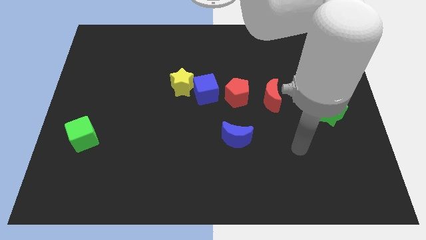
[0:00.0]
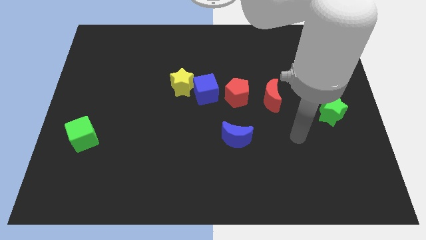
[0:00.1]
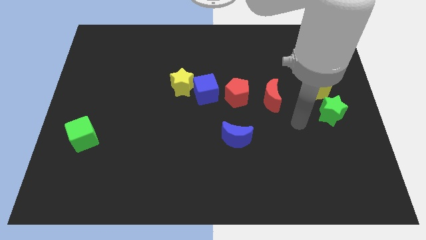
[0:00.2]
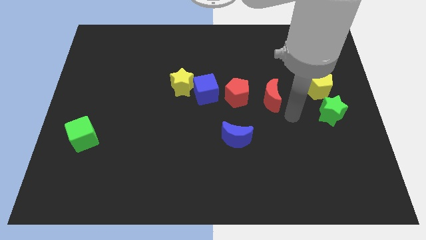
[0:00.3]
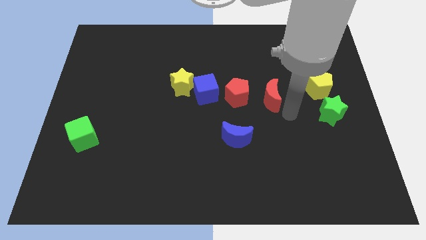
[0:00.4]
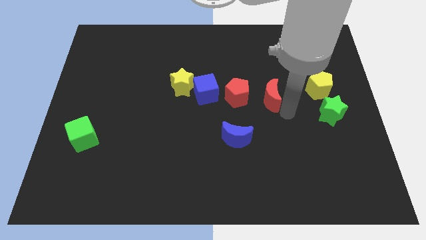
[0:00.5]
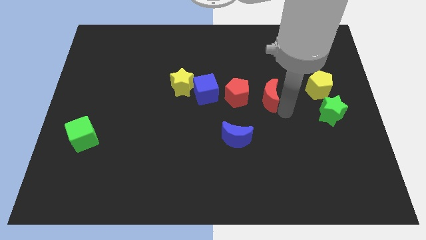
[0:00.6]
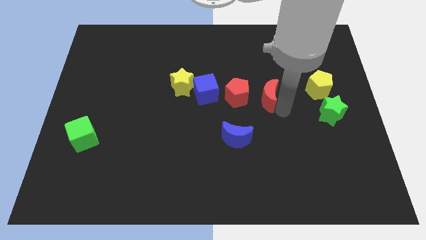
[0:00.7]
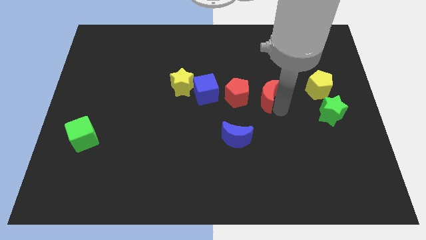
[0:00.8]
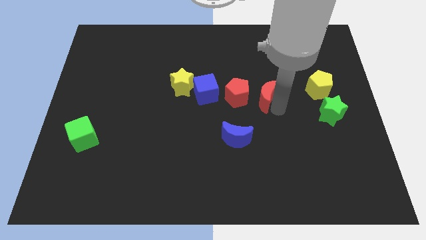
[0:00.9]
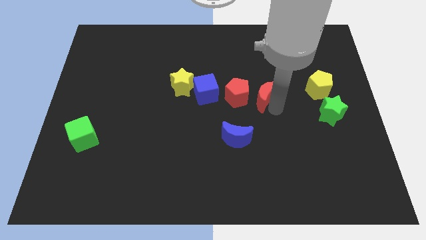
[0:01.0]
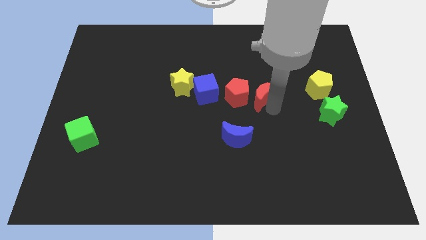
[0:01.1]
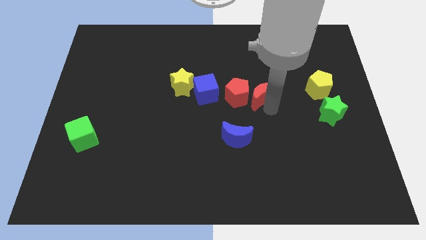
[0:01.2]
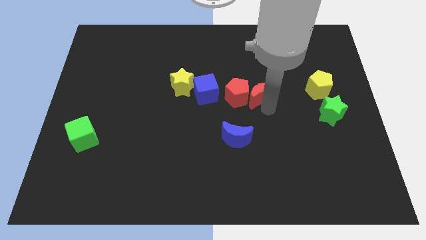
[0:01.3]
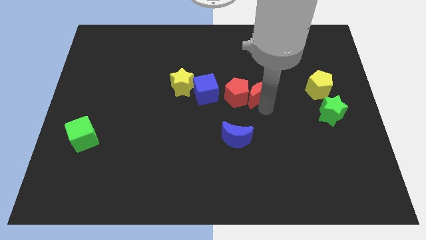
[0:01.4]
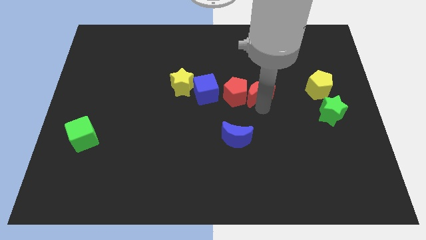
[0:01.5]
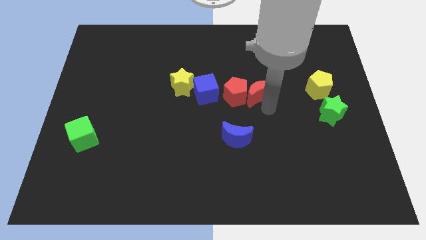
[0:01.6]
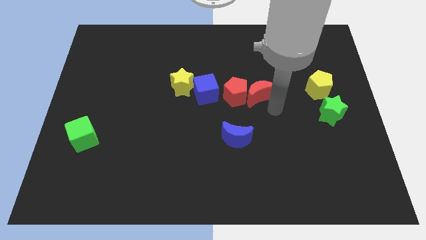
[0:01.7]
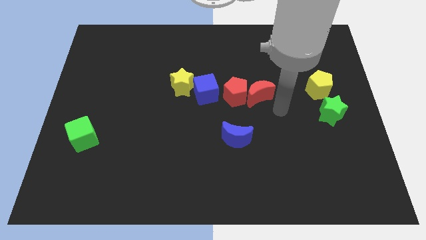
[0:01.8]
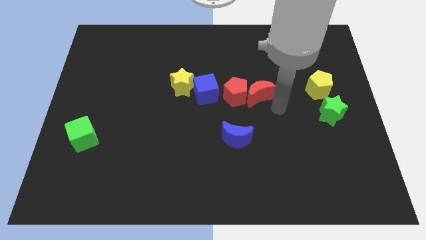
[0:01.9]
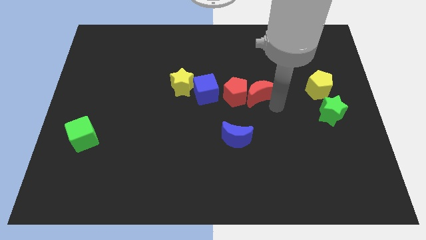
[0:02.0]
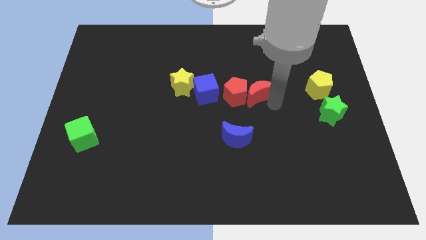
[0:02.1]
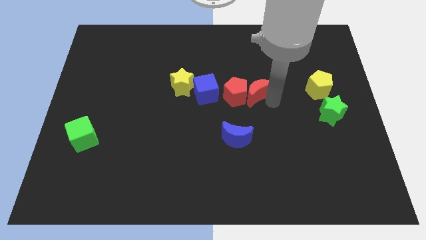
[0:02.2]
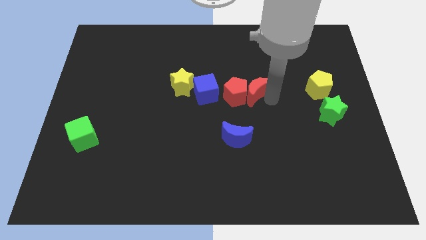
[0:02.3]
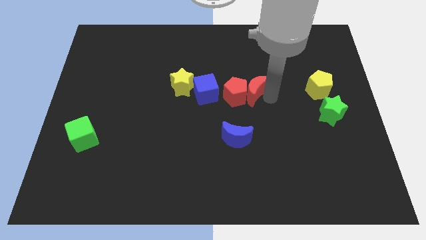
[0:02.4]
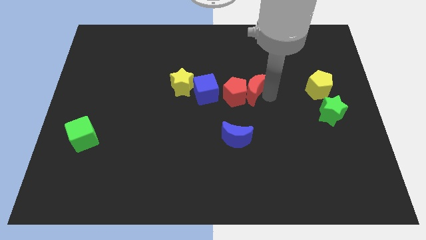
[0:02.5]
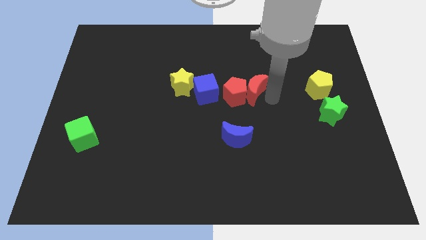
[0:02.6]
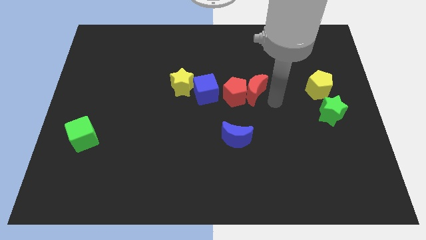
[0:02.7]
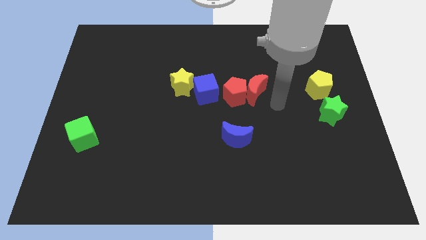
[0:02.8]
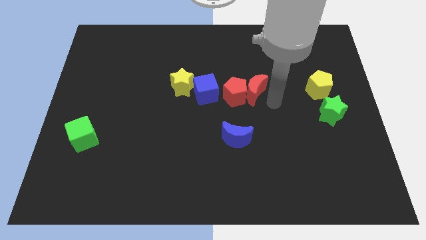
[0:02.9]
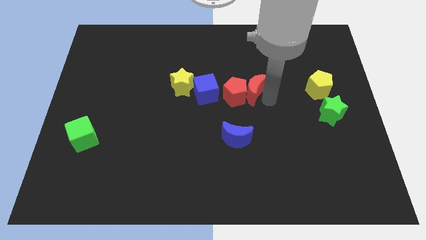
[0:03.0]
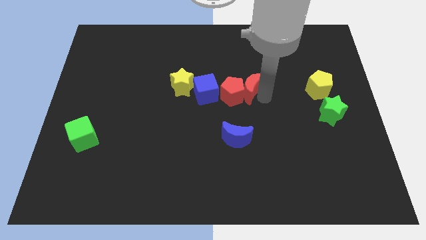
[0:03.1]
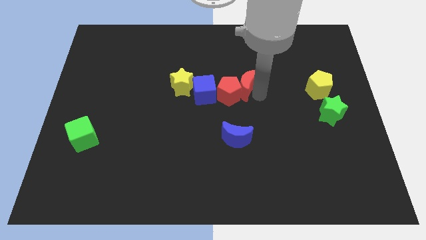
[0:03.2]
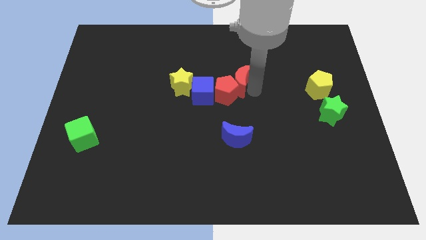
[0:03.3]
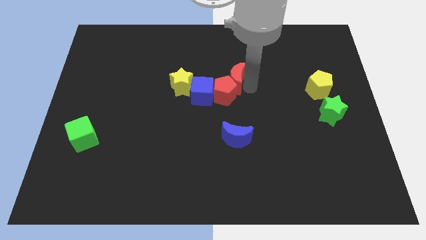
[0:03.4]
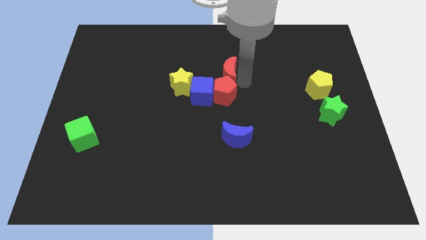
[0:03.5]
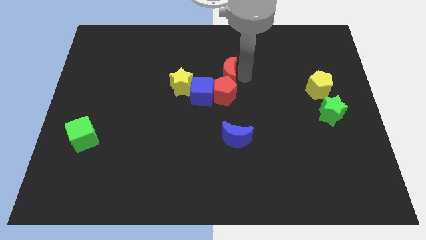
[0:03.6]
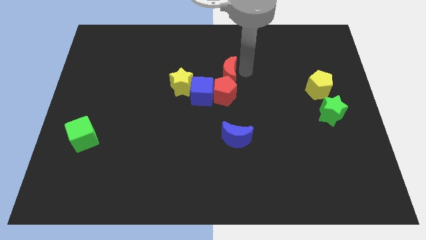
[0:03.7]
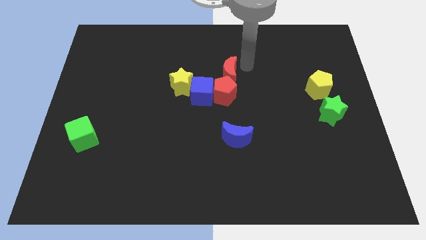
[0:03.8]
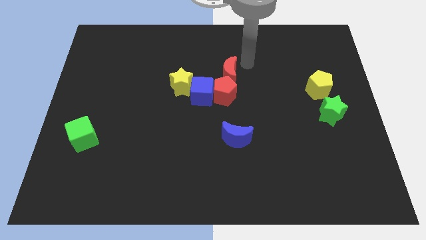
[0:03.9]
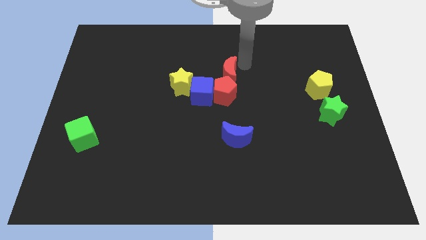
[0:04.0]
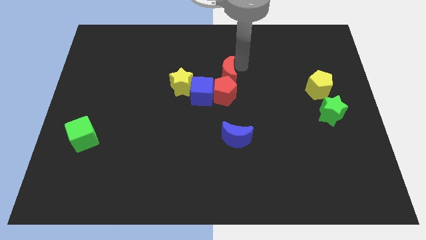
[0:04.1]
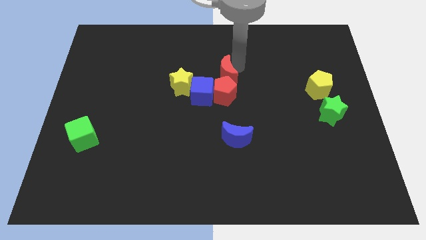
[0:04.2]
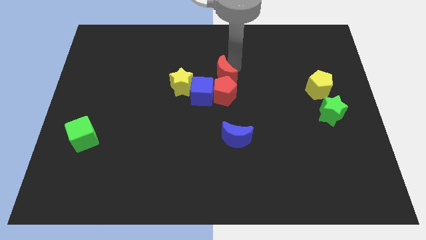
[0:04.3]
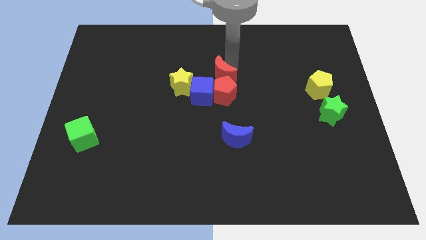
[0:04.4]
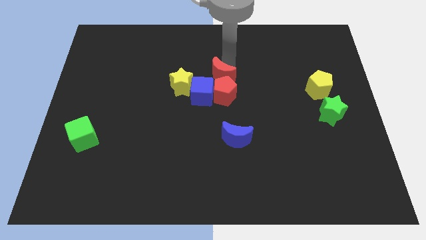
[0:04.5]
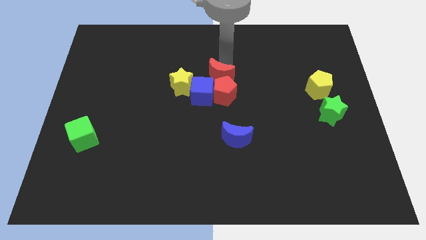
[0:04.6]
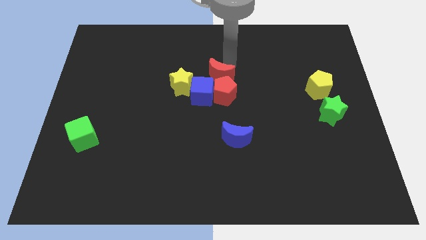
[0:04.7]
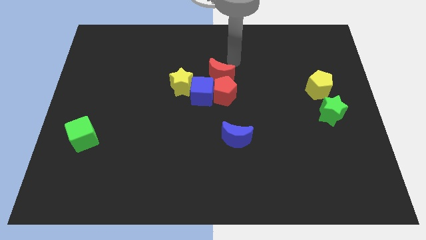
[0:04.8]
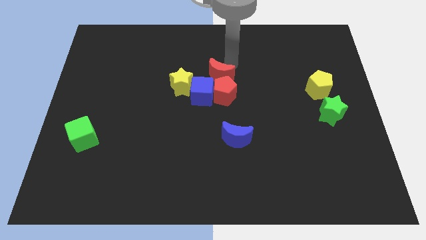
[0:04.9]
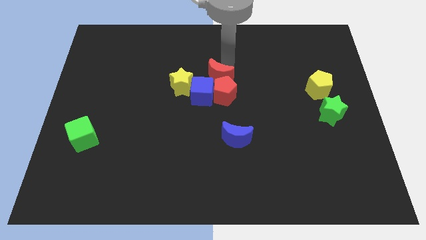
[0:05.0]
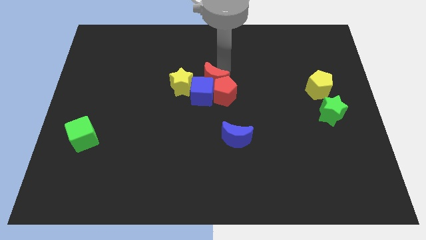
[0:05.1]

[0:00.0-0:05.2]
push the red moon to the blue cube

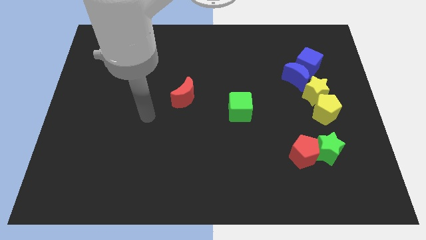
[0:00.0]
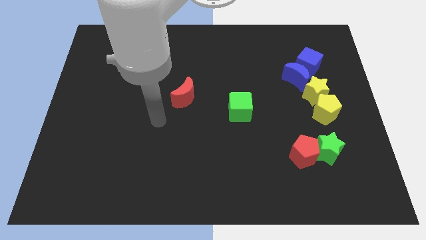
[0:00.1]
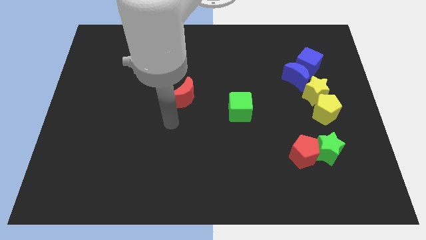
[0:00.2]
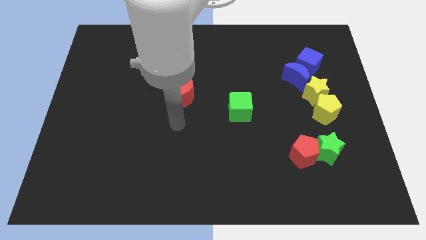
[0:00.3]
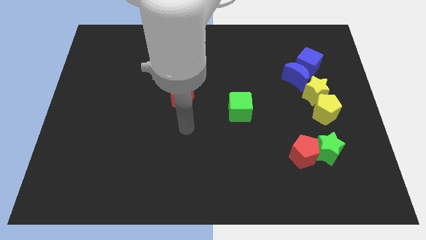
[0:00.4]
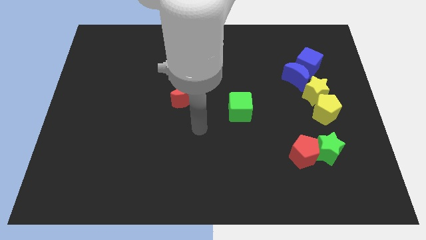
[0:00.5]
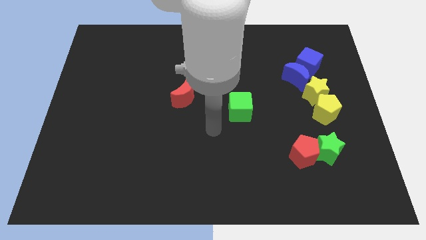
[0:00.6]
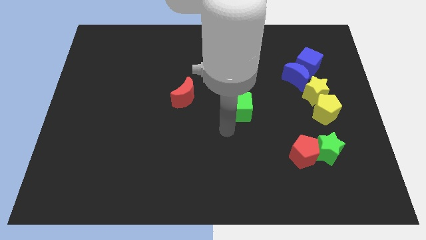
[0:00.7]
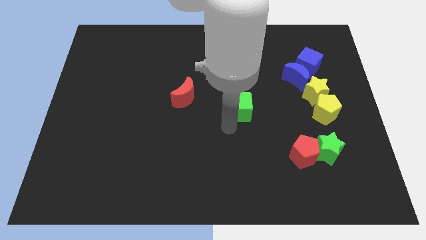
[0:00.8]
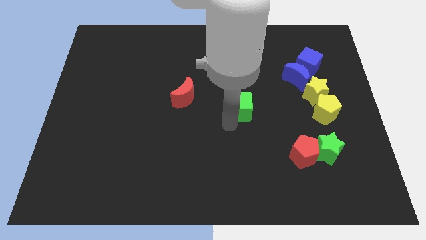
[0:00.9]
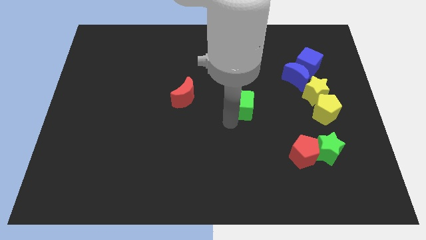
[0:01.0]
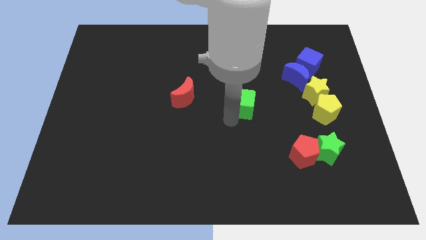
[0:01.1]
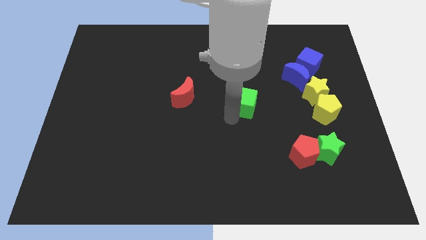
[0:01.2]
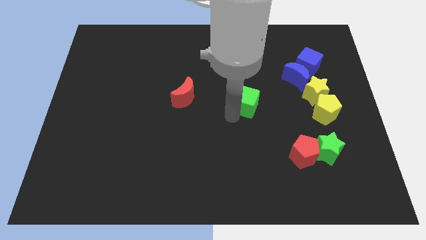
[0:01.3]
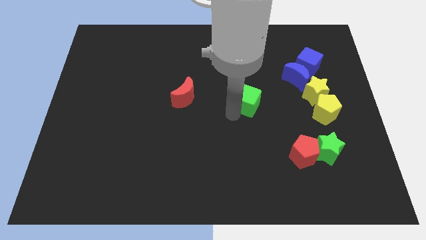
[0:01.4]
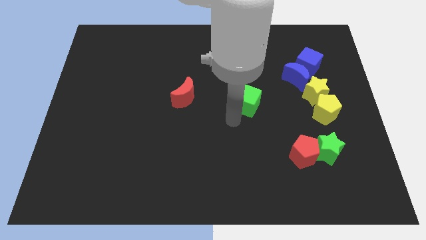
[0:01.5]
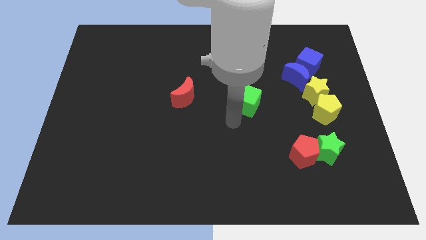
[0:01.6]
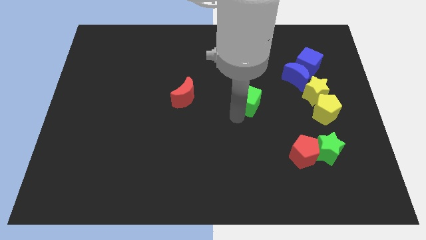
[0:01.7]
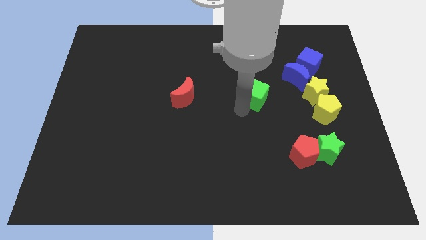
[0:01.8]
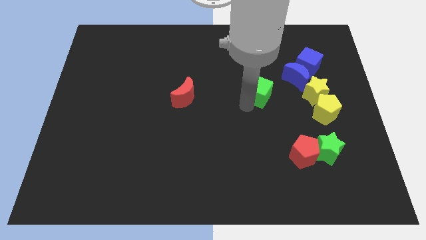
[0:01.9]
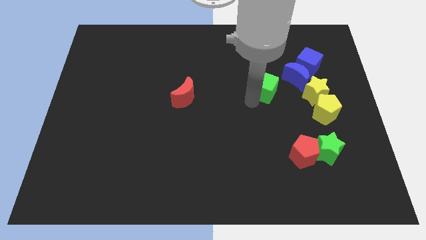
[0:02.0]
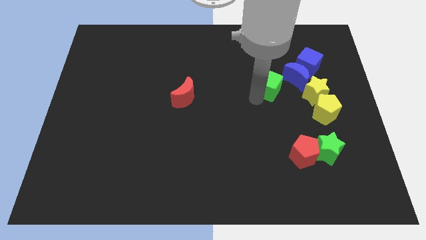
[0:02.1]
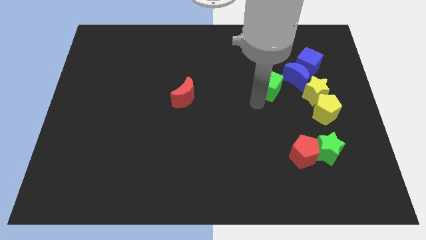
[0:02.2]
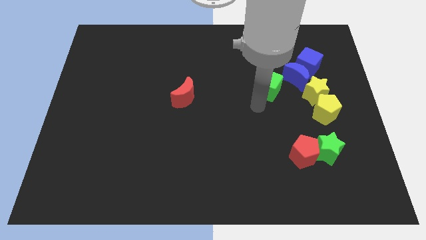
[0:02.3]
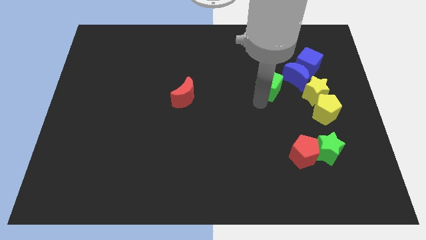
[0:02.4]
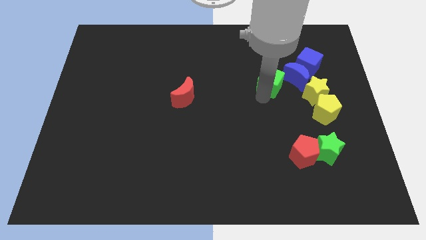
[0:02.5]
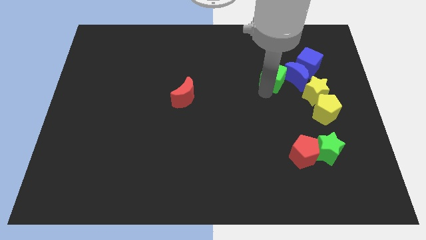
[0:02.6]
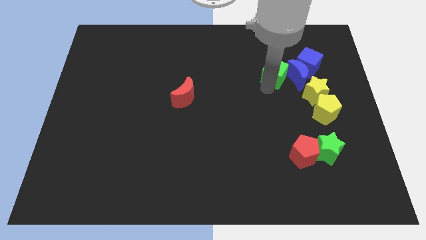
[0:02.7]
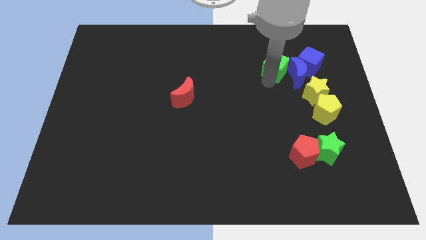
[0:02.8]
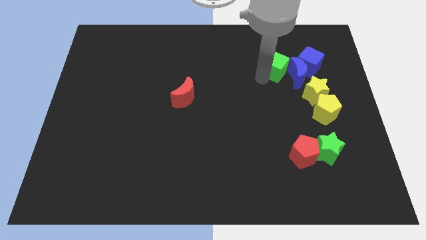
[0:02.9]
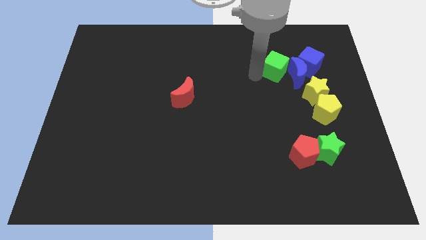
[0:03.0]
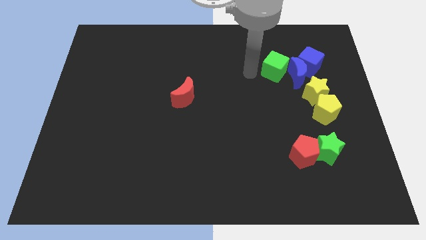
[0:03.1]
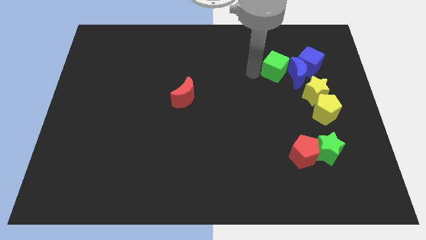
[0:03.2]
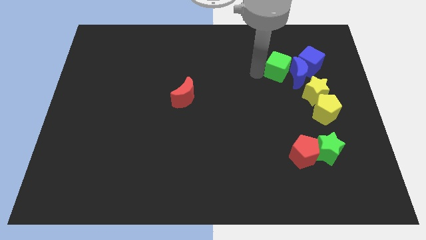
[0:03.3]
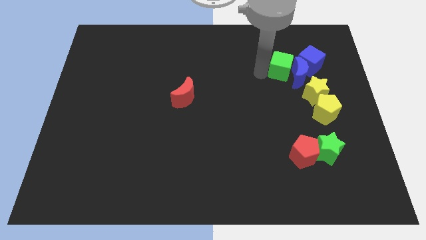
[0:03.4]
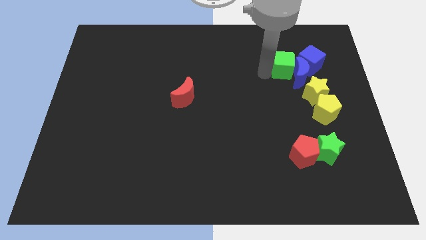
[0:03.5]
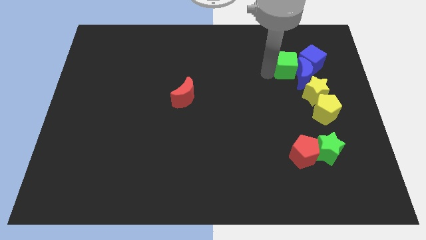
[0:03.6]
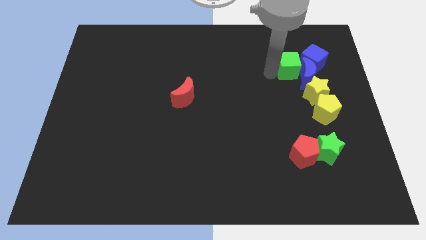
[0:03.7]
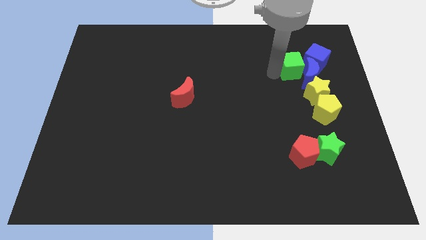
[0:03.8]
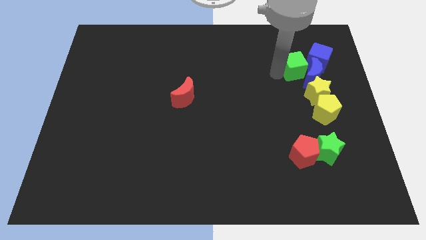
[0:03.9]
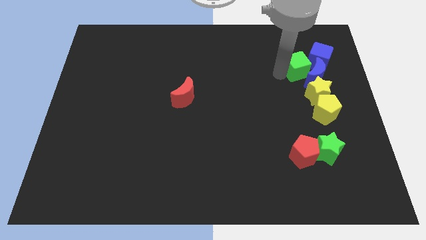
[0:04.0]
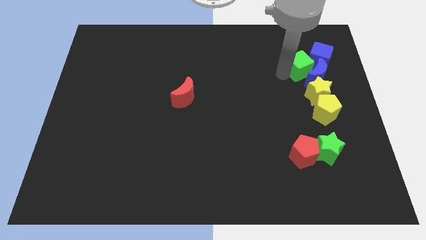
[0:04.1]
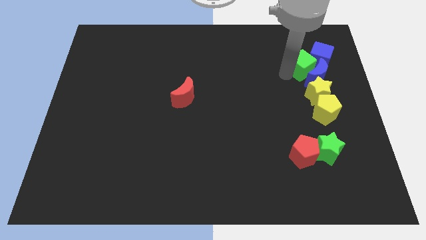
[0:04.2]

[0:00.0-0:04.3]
slide the green cube close to the blue cube
